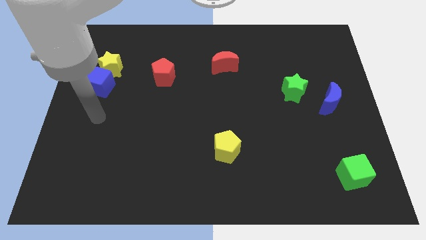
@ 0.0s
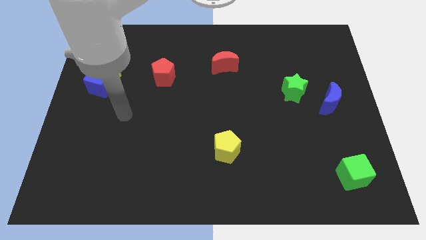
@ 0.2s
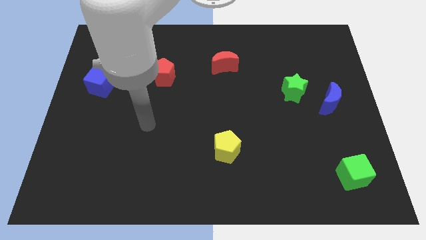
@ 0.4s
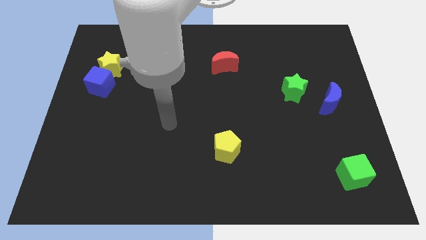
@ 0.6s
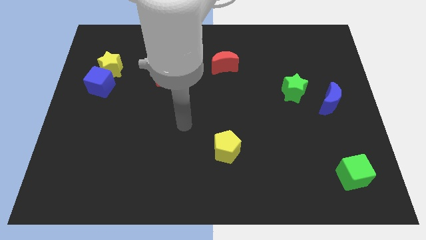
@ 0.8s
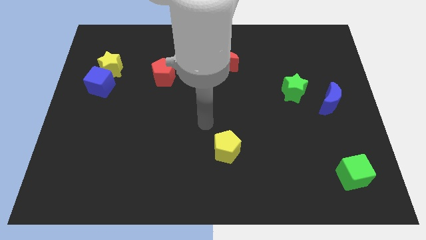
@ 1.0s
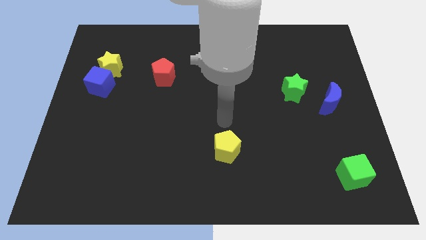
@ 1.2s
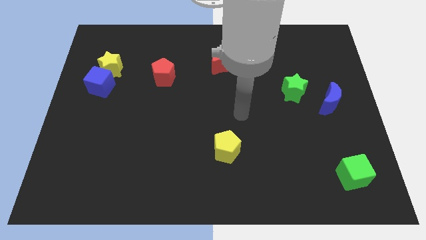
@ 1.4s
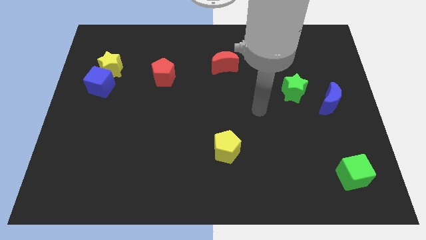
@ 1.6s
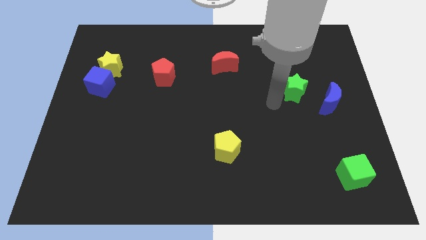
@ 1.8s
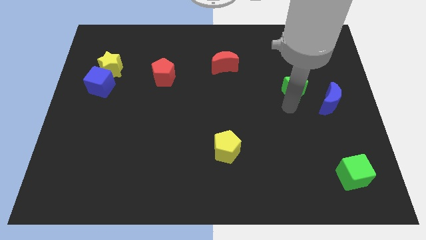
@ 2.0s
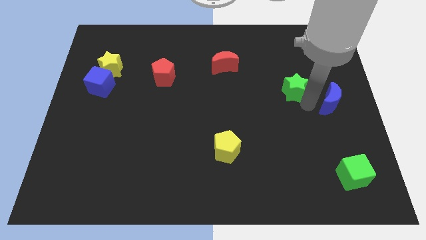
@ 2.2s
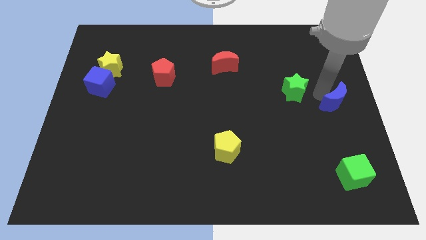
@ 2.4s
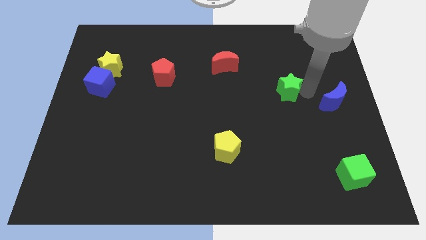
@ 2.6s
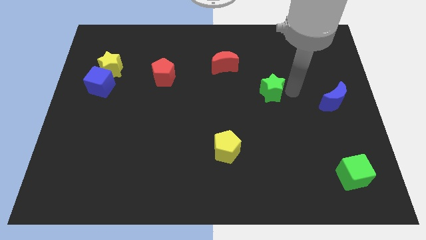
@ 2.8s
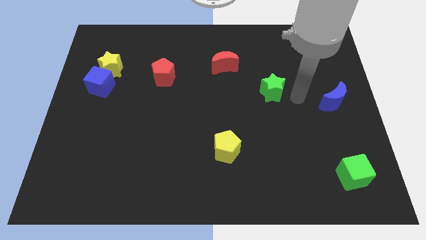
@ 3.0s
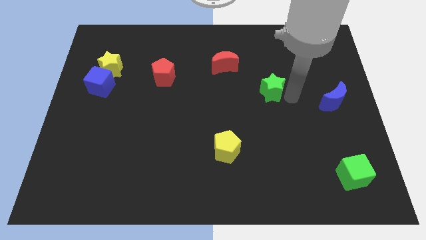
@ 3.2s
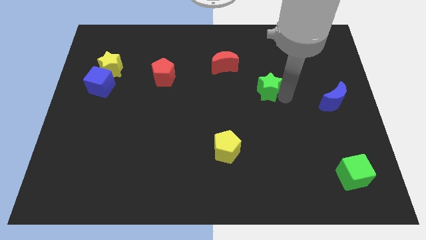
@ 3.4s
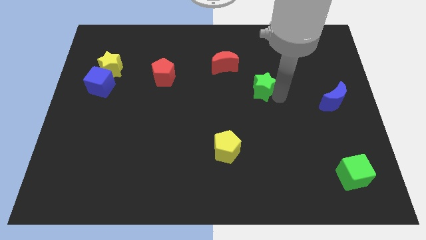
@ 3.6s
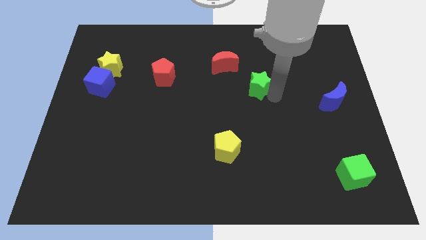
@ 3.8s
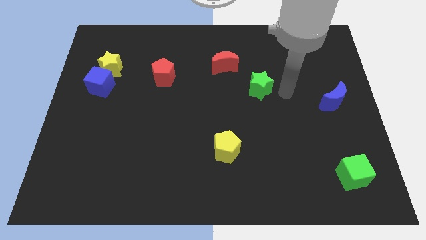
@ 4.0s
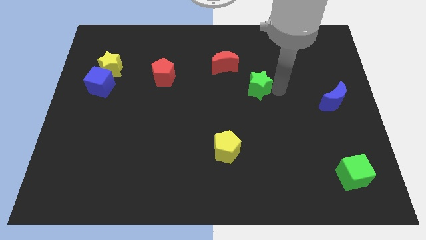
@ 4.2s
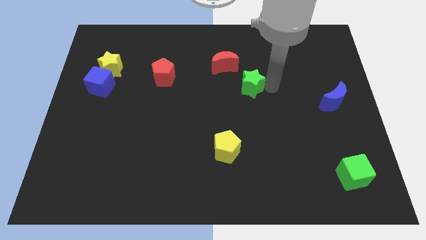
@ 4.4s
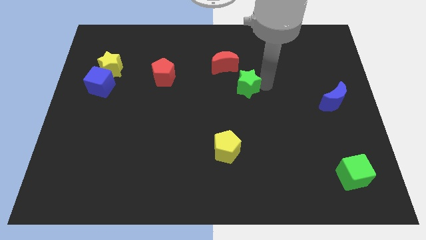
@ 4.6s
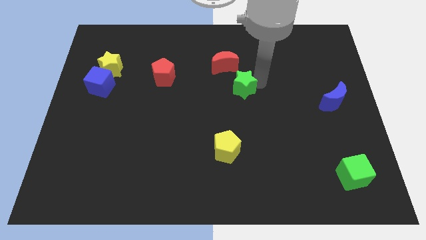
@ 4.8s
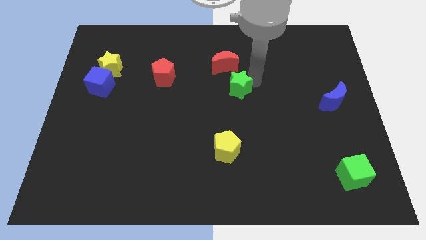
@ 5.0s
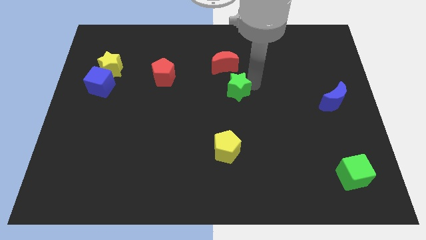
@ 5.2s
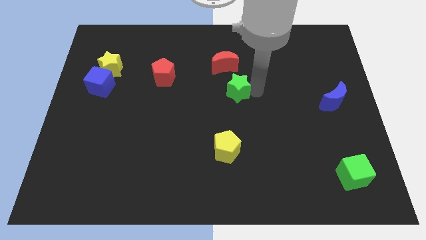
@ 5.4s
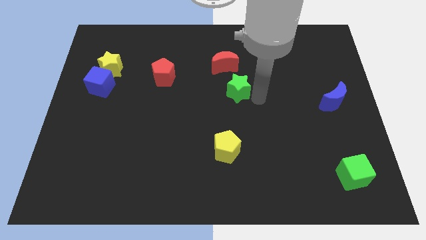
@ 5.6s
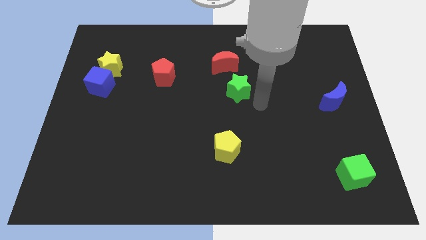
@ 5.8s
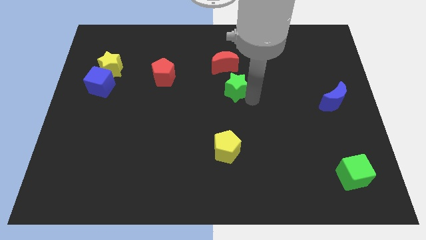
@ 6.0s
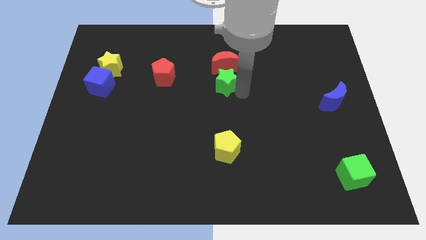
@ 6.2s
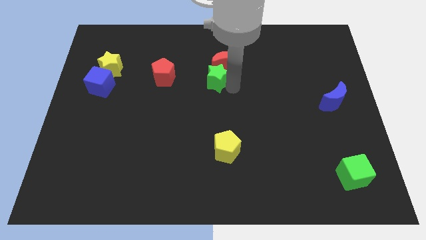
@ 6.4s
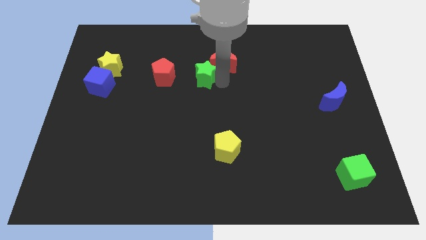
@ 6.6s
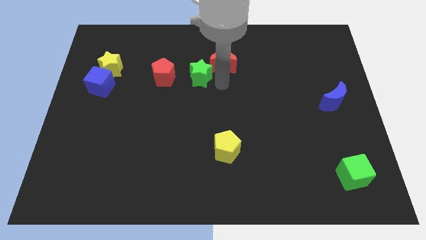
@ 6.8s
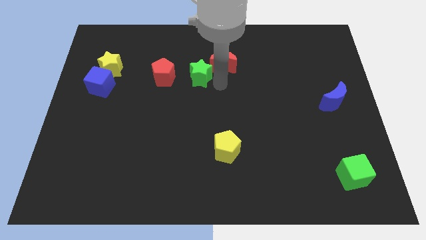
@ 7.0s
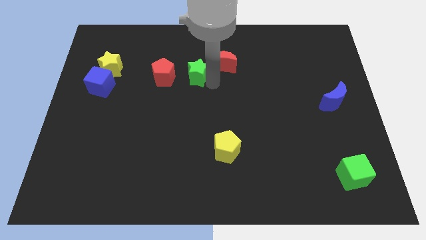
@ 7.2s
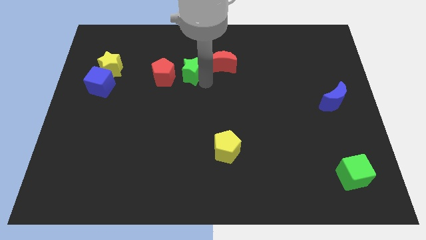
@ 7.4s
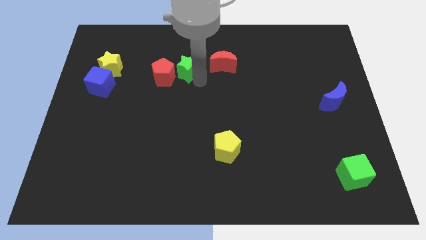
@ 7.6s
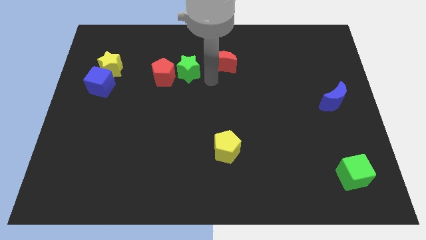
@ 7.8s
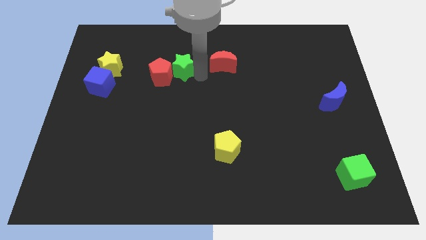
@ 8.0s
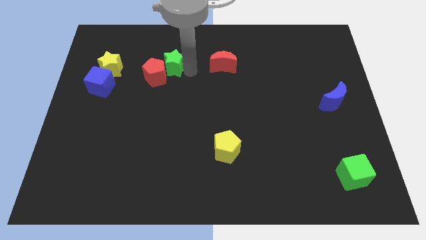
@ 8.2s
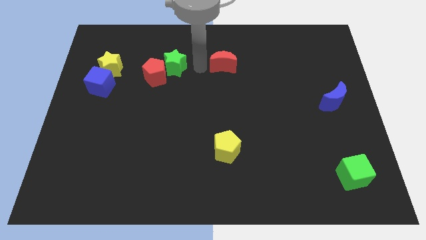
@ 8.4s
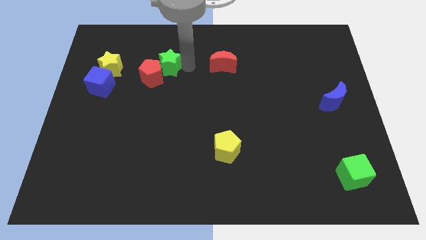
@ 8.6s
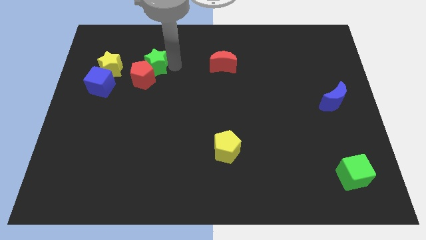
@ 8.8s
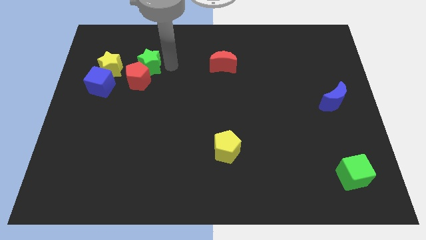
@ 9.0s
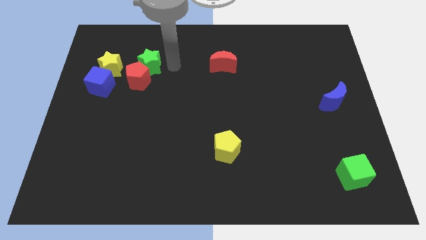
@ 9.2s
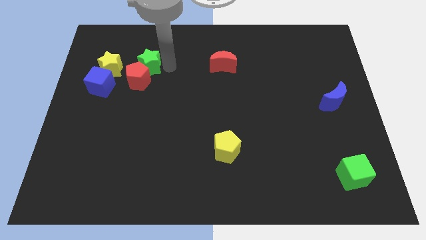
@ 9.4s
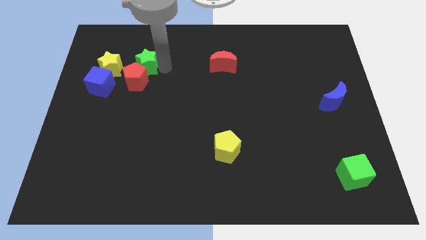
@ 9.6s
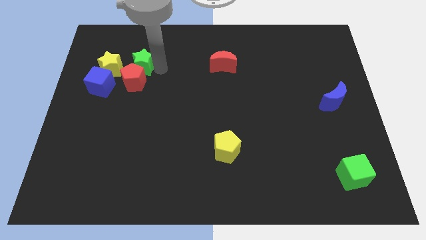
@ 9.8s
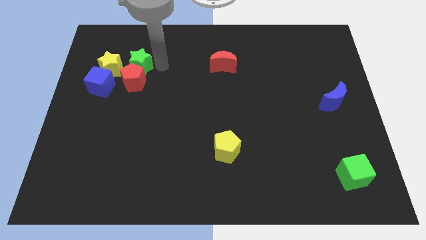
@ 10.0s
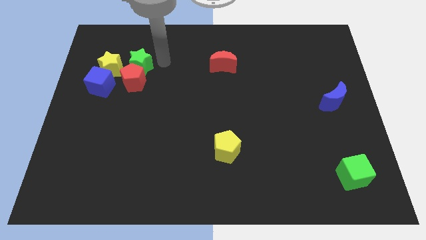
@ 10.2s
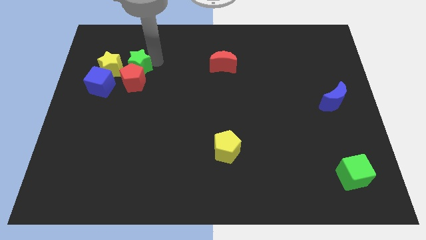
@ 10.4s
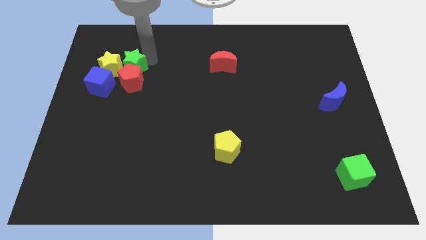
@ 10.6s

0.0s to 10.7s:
move the green star towards the yellow star

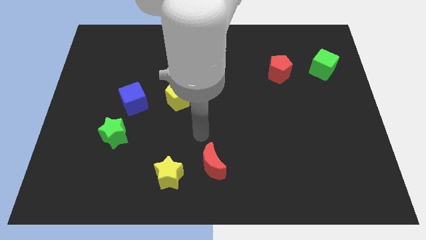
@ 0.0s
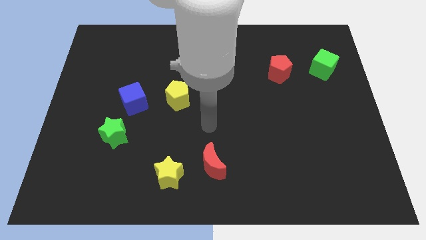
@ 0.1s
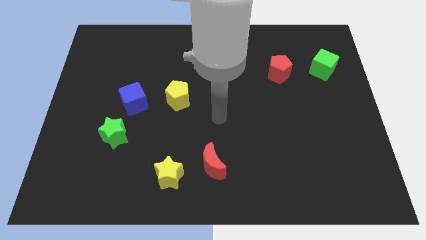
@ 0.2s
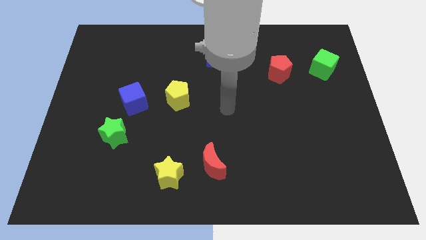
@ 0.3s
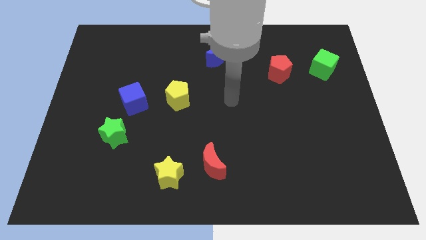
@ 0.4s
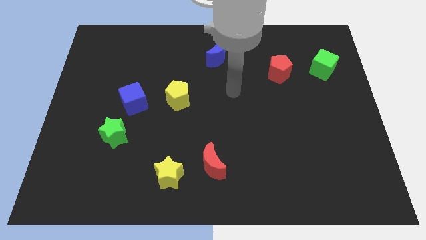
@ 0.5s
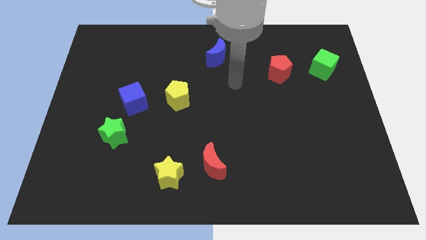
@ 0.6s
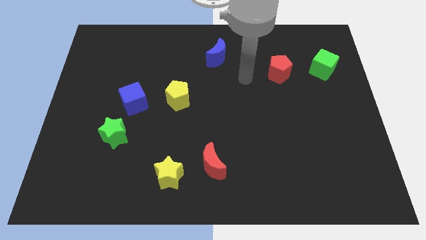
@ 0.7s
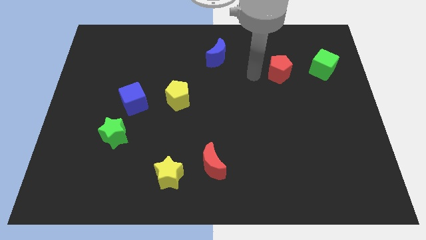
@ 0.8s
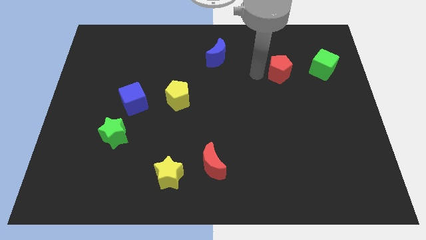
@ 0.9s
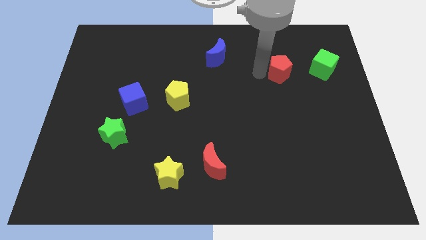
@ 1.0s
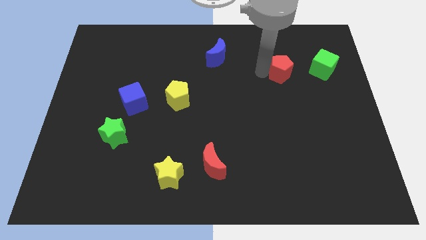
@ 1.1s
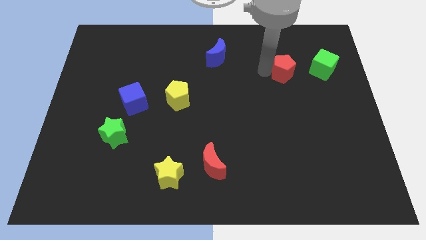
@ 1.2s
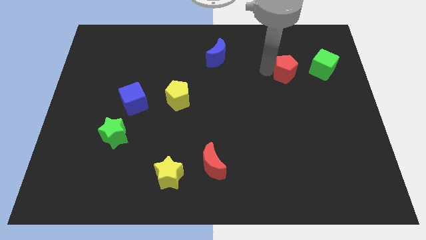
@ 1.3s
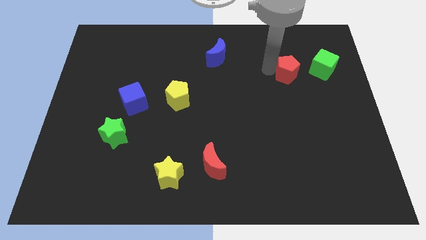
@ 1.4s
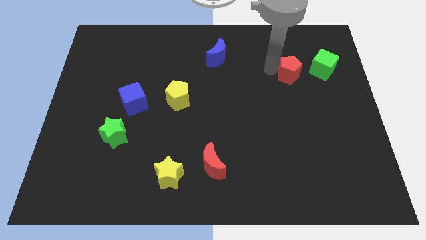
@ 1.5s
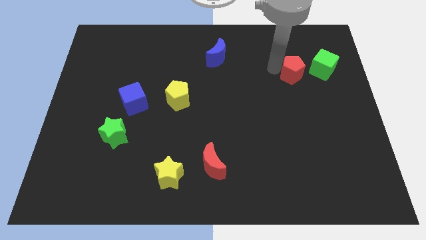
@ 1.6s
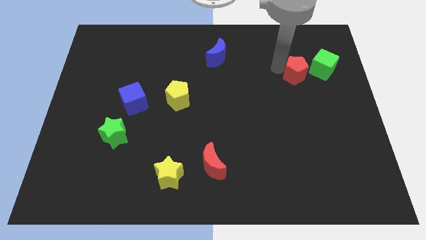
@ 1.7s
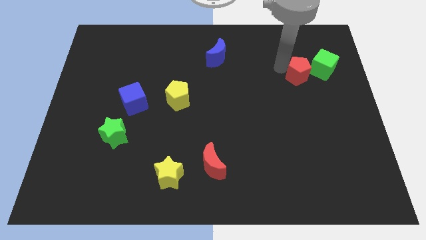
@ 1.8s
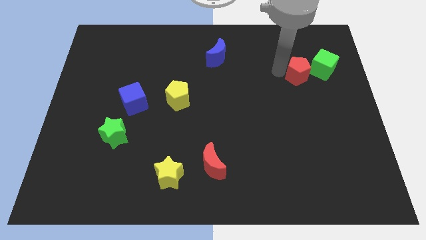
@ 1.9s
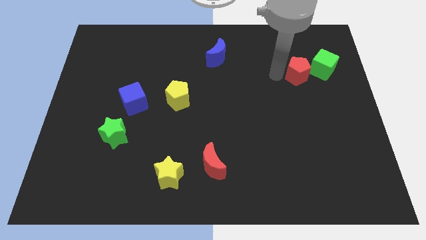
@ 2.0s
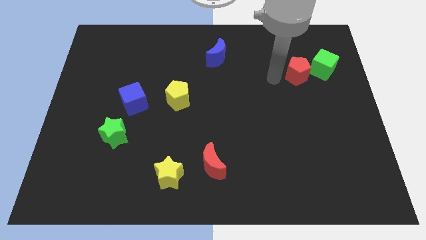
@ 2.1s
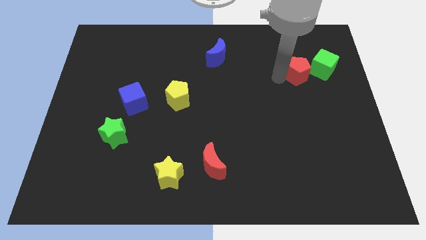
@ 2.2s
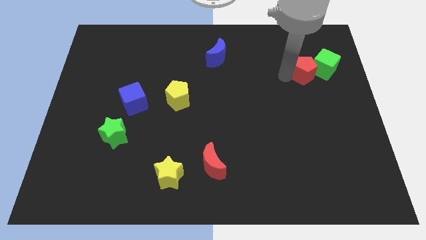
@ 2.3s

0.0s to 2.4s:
put the red pentagon to the green cube
